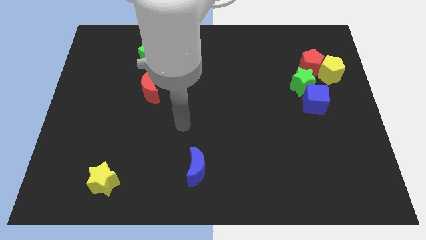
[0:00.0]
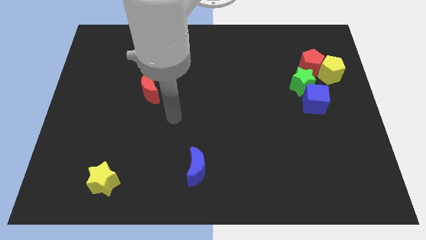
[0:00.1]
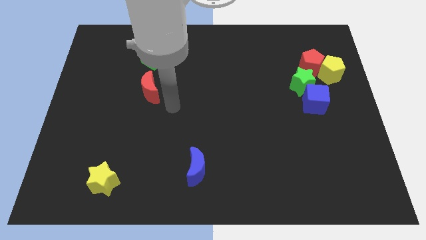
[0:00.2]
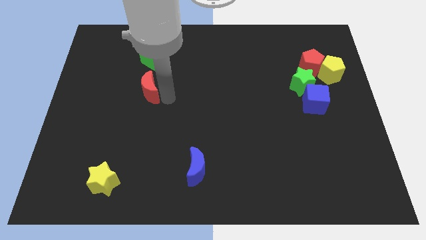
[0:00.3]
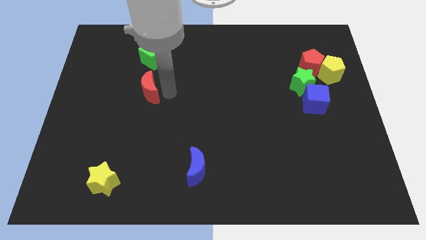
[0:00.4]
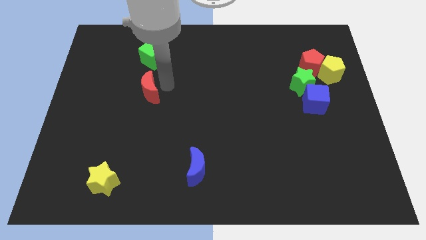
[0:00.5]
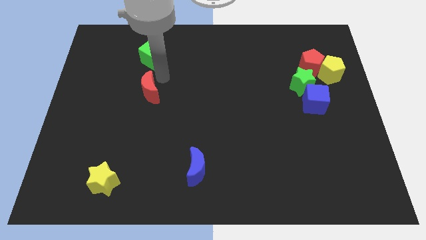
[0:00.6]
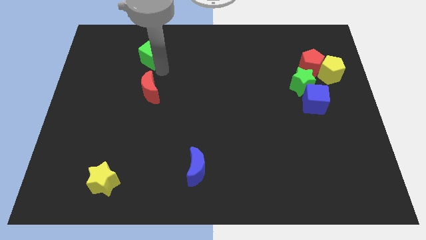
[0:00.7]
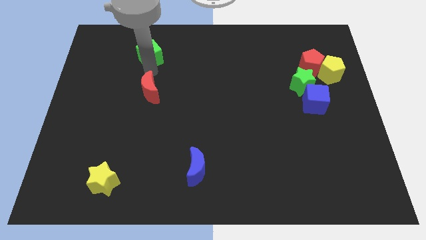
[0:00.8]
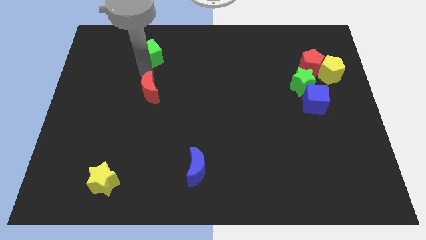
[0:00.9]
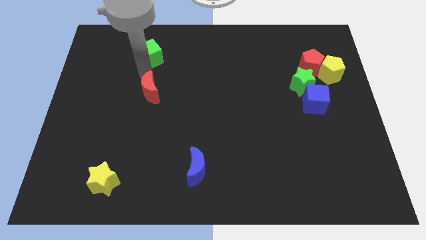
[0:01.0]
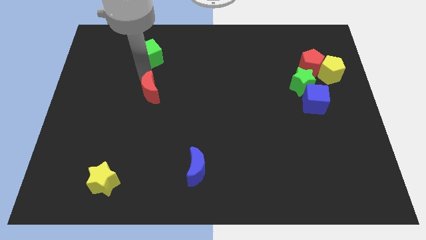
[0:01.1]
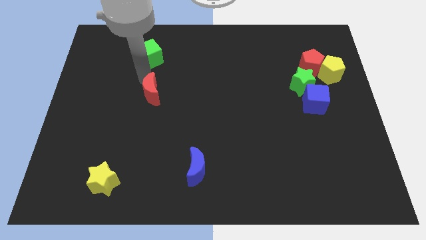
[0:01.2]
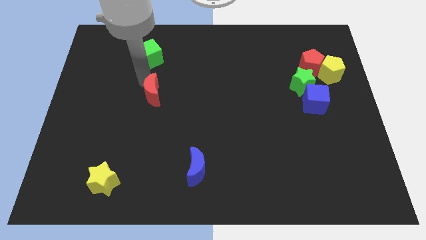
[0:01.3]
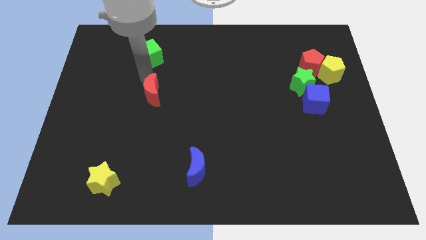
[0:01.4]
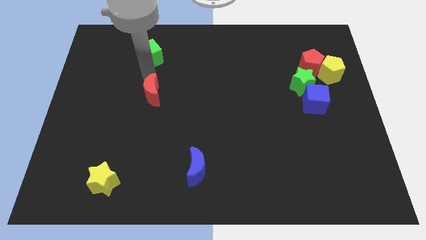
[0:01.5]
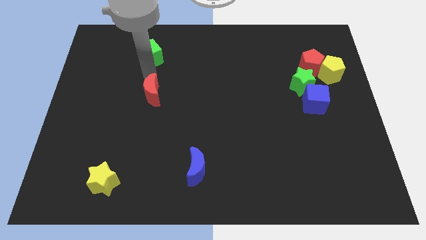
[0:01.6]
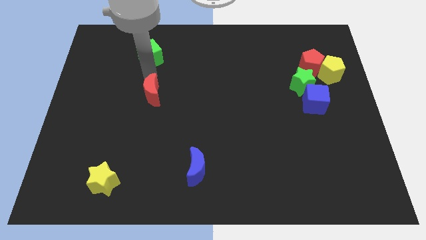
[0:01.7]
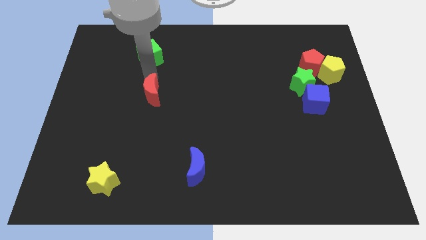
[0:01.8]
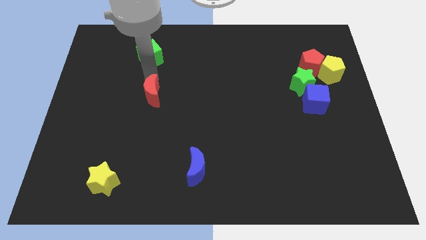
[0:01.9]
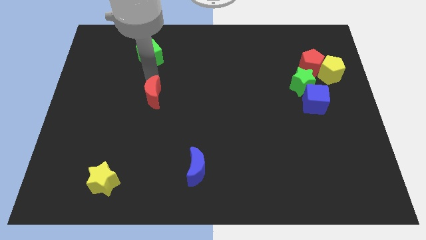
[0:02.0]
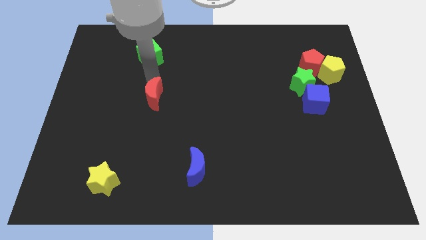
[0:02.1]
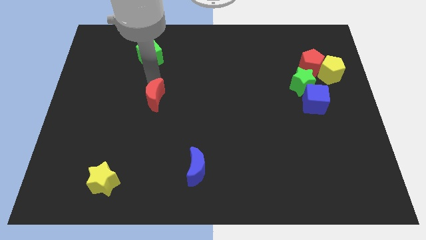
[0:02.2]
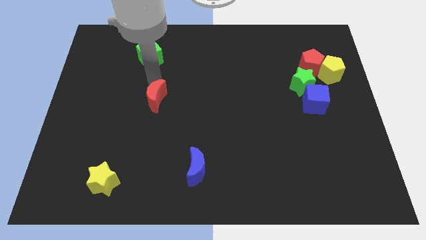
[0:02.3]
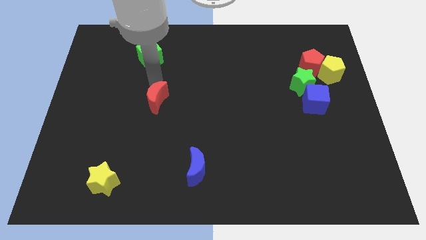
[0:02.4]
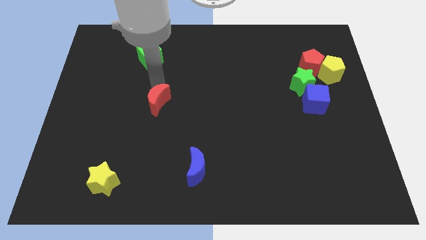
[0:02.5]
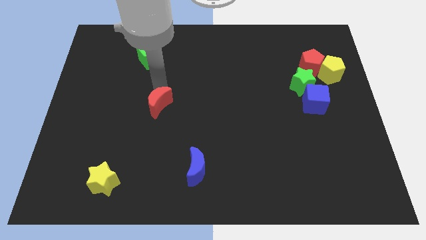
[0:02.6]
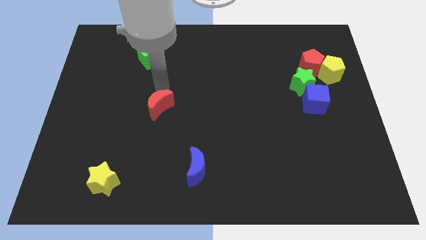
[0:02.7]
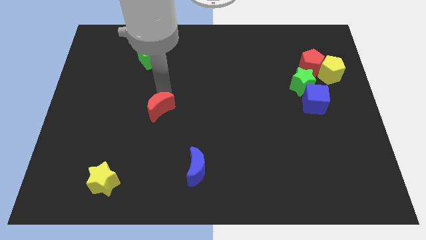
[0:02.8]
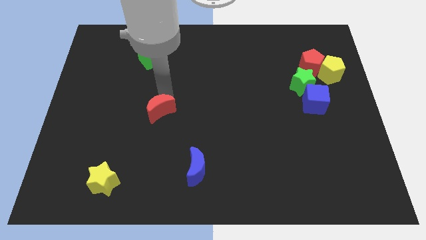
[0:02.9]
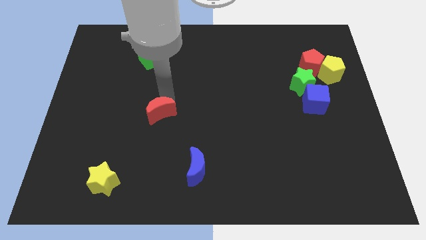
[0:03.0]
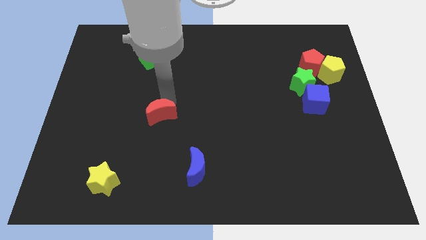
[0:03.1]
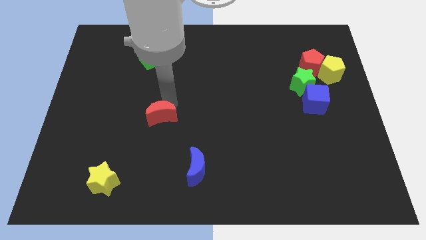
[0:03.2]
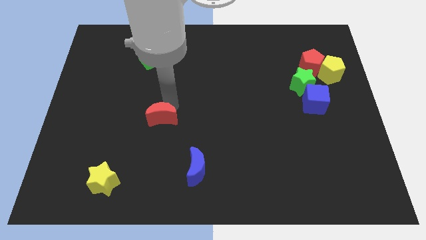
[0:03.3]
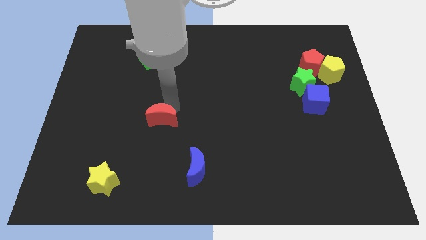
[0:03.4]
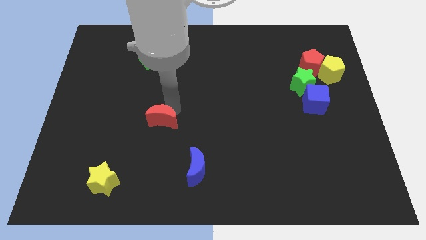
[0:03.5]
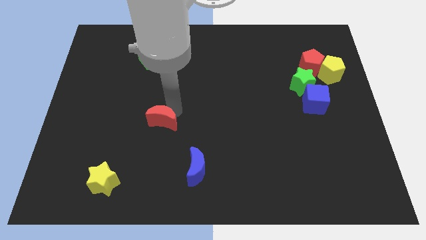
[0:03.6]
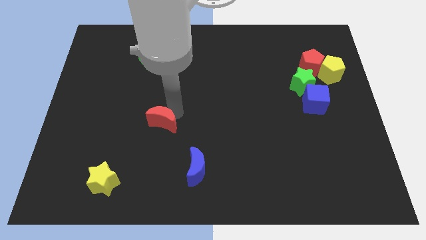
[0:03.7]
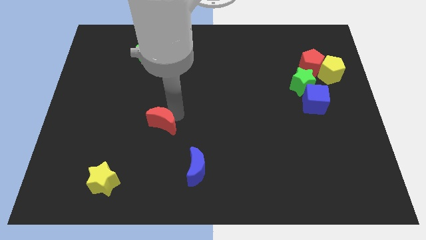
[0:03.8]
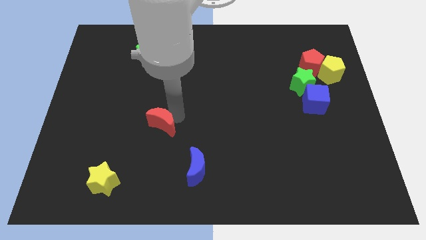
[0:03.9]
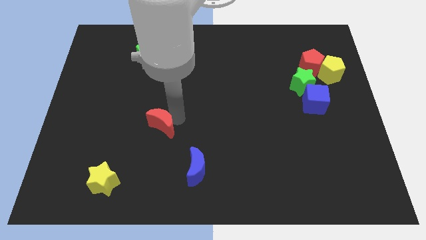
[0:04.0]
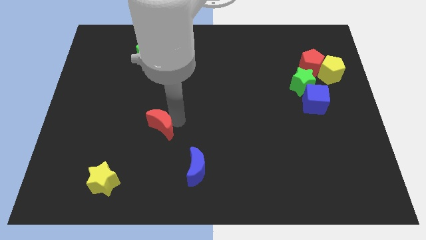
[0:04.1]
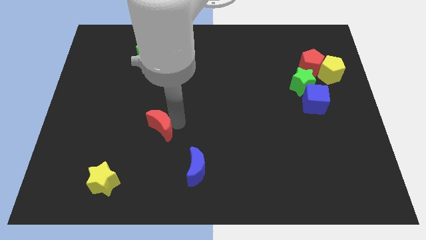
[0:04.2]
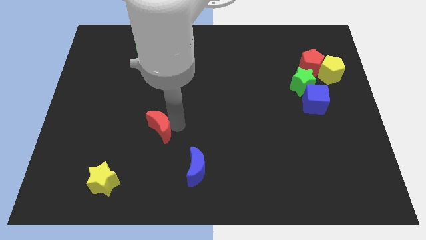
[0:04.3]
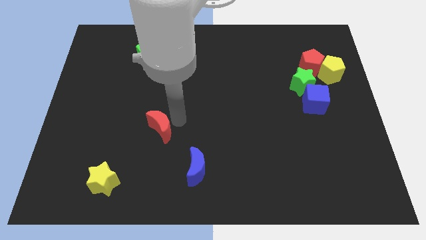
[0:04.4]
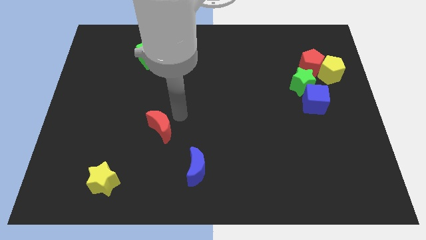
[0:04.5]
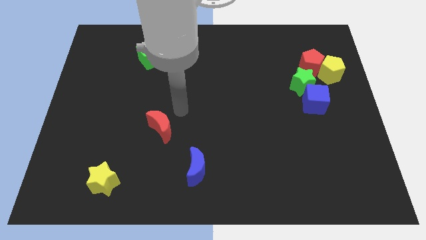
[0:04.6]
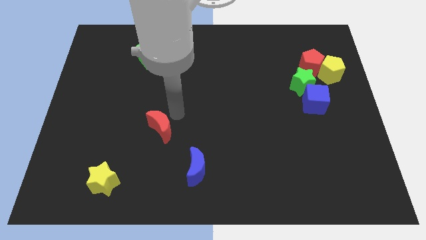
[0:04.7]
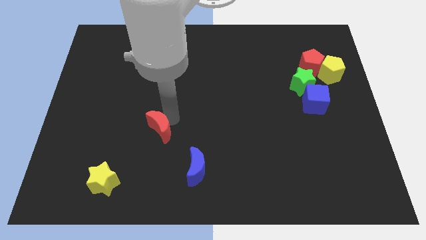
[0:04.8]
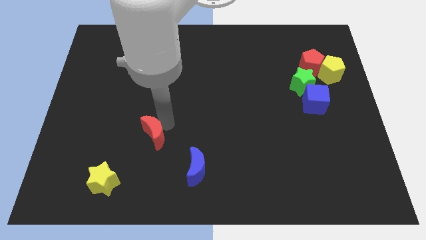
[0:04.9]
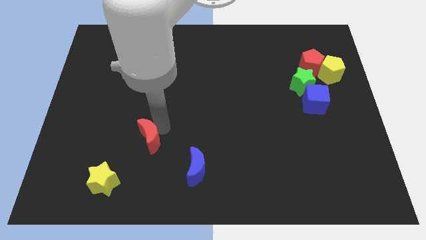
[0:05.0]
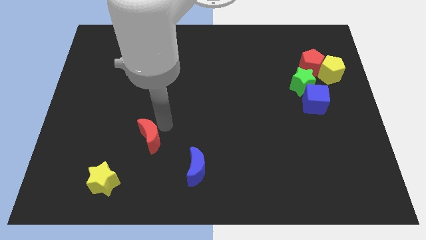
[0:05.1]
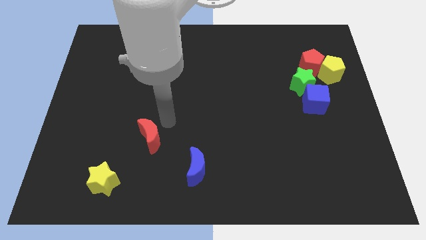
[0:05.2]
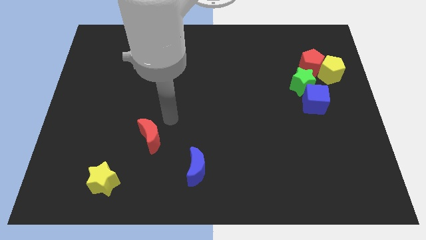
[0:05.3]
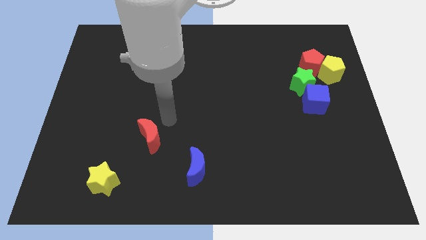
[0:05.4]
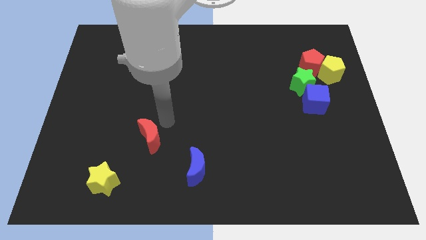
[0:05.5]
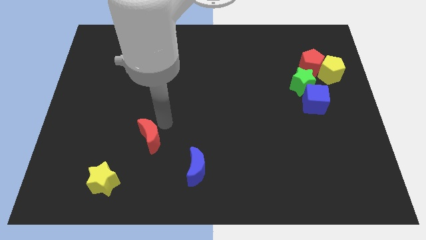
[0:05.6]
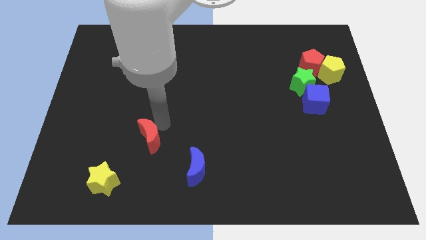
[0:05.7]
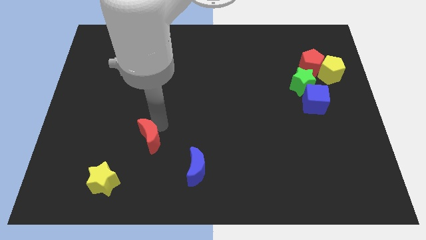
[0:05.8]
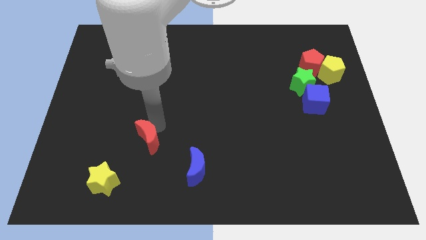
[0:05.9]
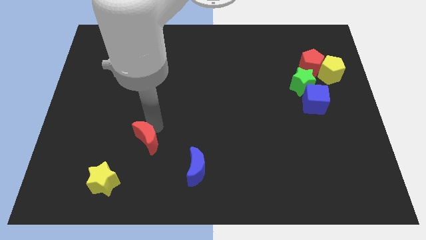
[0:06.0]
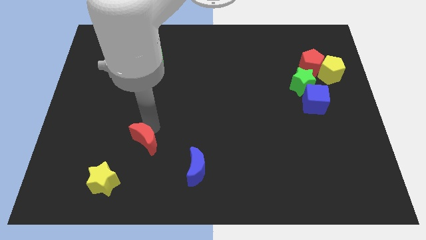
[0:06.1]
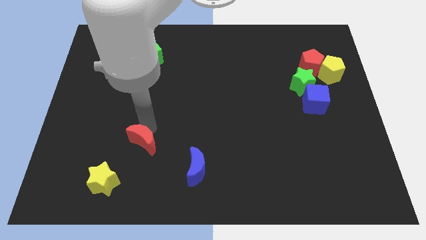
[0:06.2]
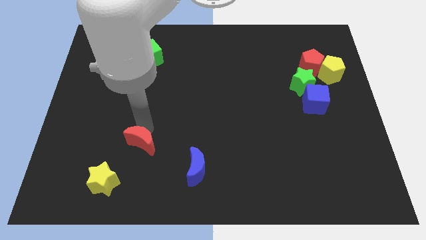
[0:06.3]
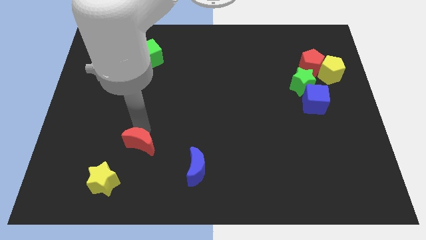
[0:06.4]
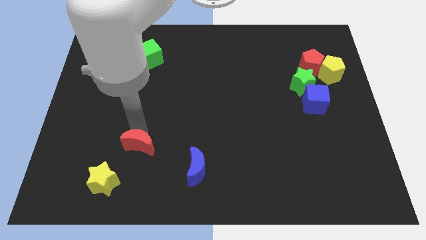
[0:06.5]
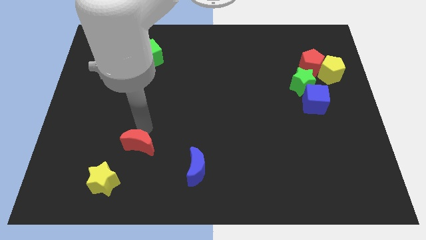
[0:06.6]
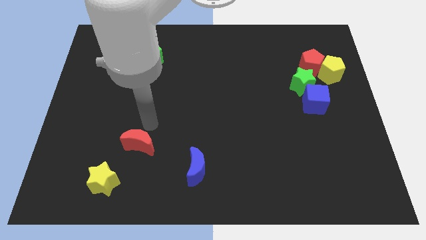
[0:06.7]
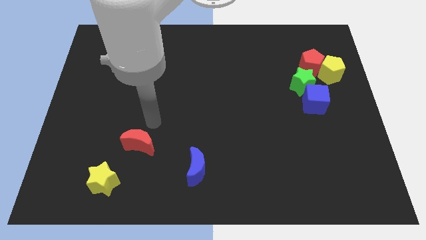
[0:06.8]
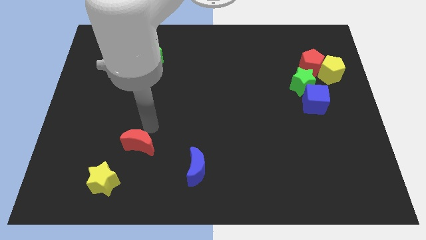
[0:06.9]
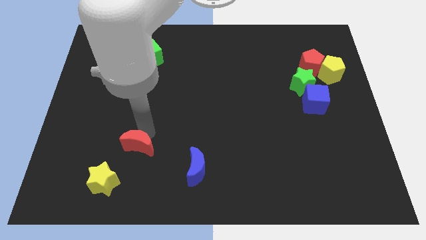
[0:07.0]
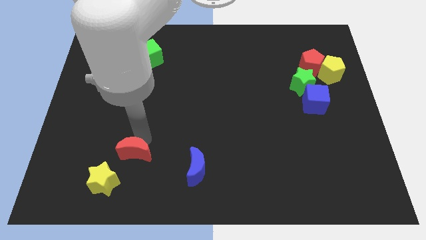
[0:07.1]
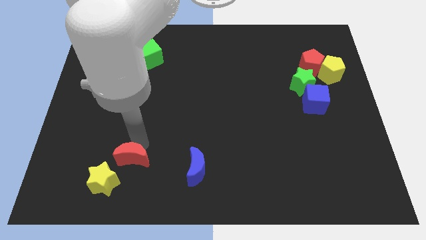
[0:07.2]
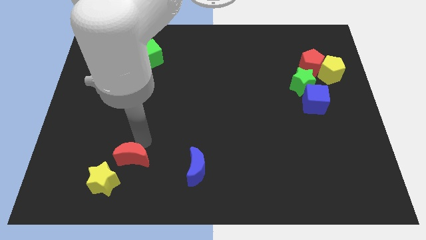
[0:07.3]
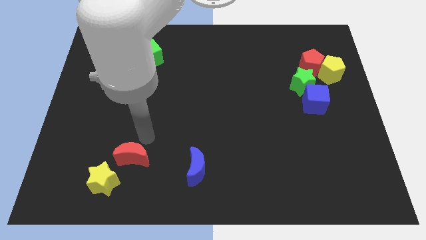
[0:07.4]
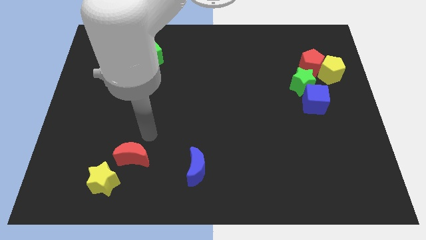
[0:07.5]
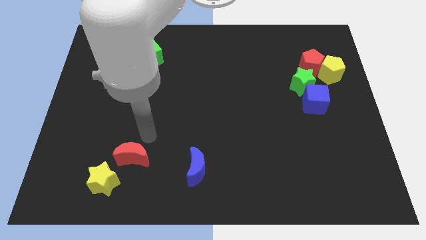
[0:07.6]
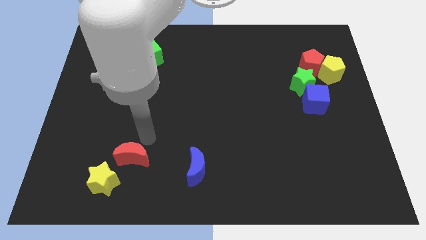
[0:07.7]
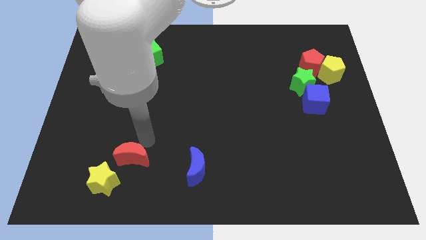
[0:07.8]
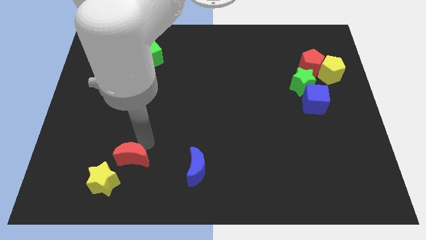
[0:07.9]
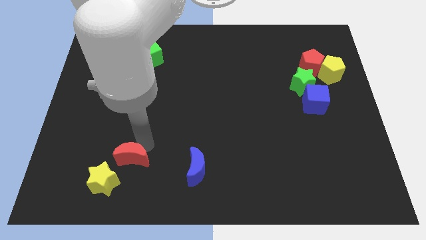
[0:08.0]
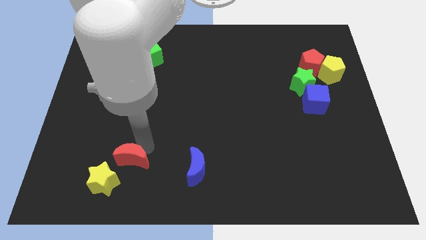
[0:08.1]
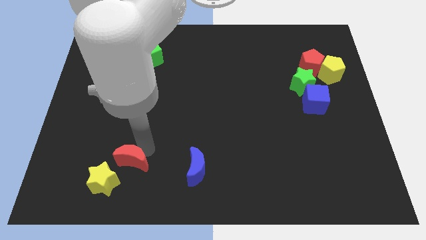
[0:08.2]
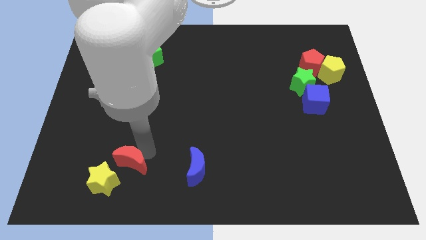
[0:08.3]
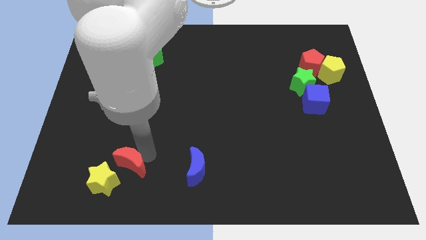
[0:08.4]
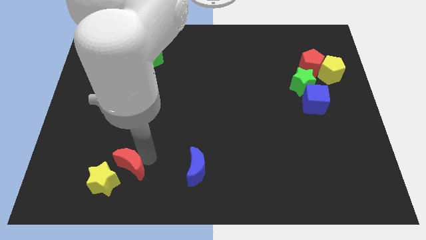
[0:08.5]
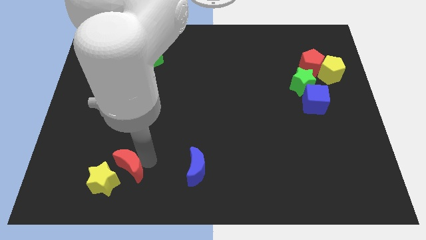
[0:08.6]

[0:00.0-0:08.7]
put the red moon to the yellow star
